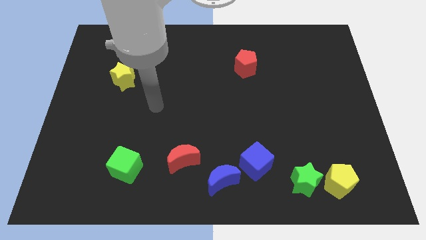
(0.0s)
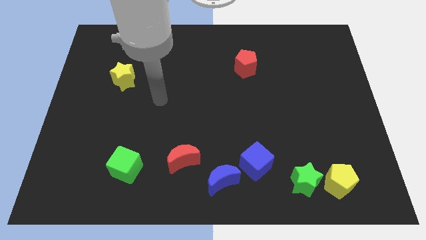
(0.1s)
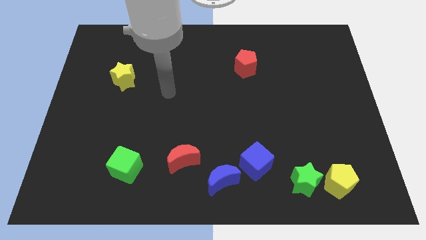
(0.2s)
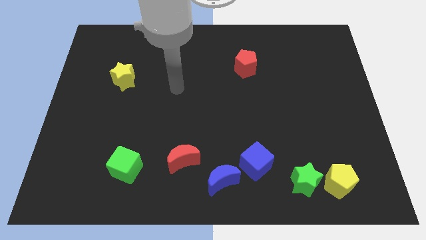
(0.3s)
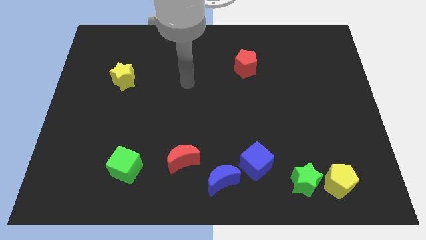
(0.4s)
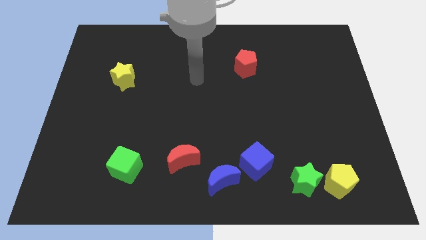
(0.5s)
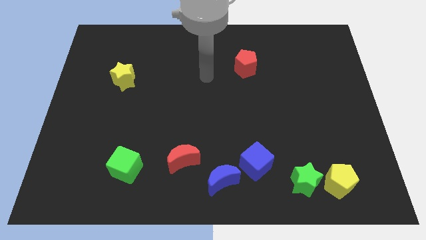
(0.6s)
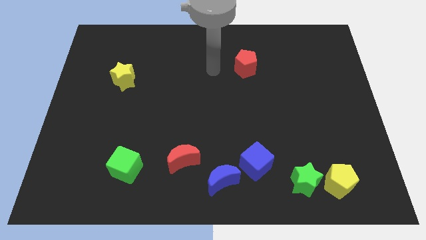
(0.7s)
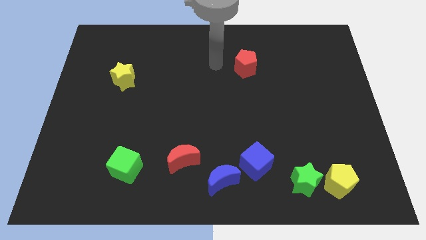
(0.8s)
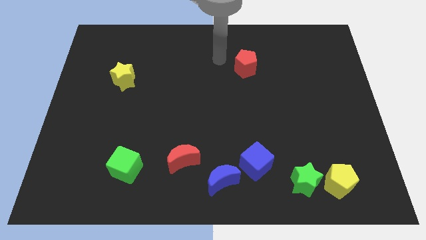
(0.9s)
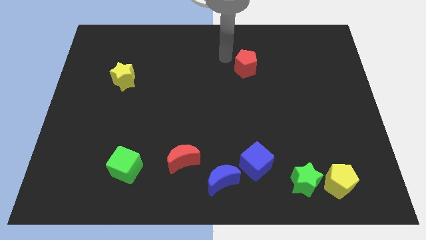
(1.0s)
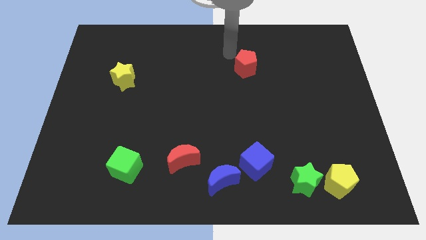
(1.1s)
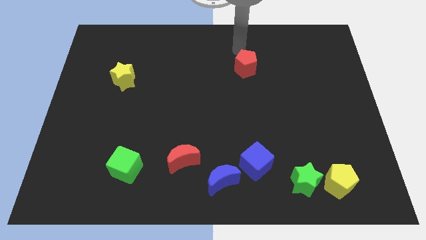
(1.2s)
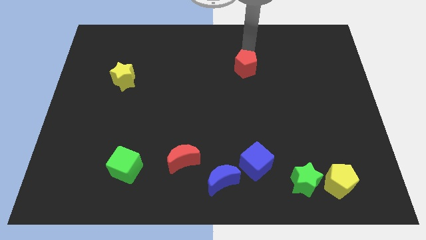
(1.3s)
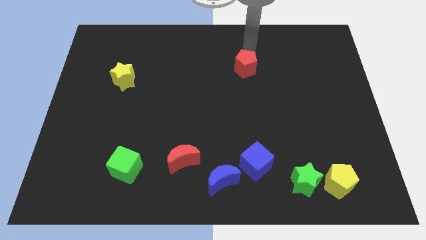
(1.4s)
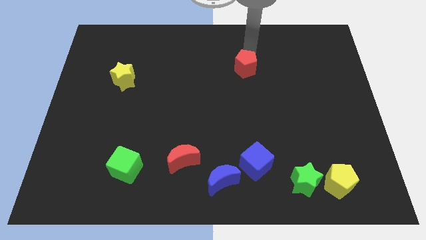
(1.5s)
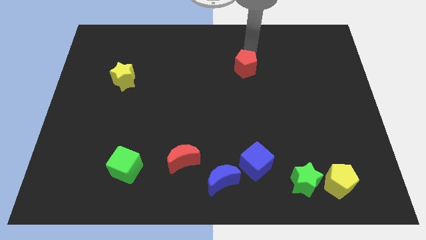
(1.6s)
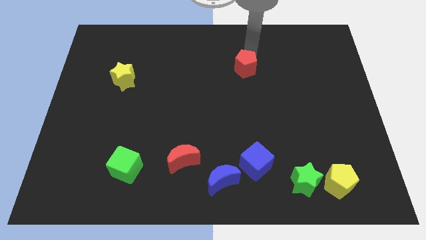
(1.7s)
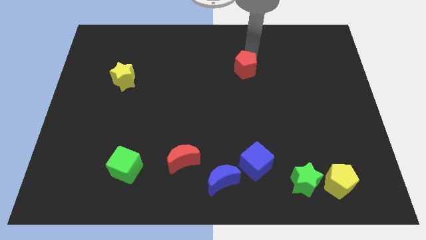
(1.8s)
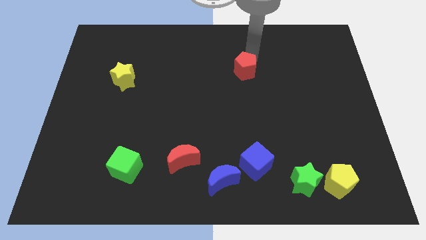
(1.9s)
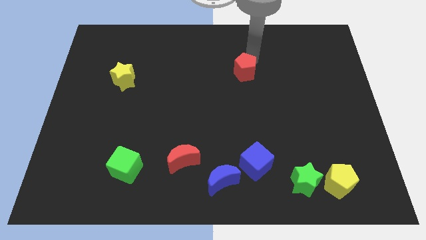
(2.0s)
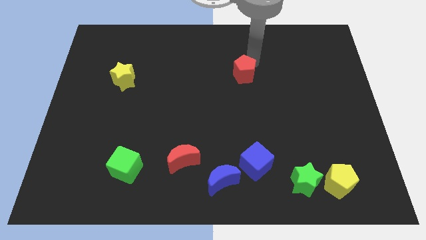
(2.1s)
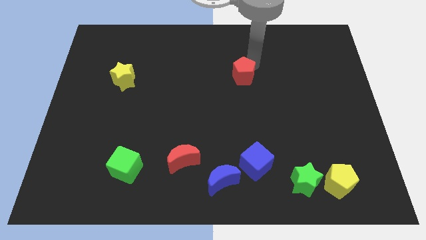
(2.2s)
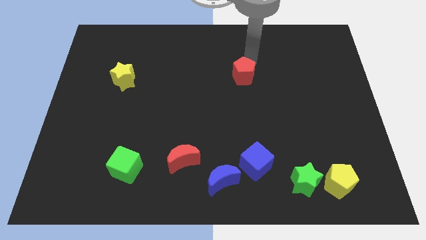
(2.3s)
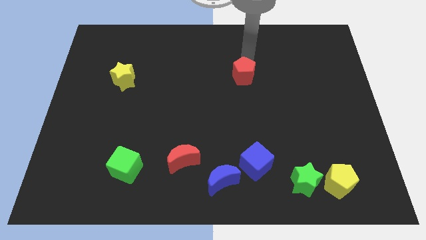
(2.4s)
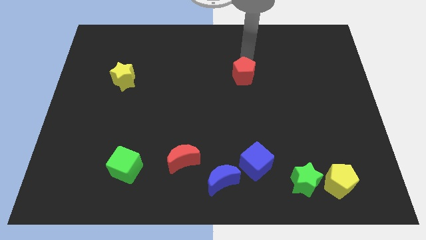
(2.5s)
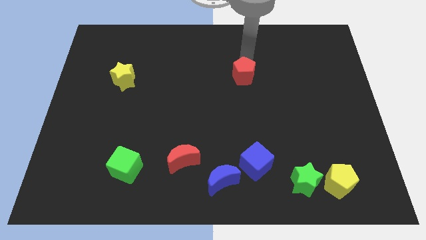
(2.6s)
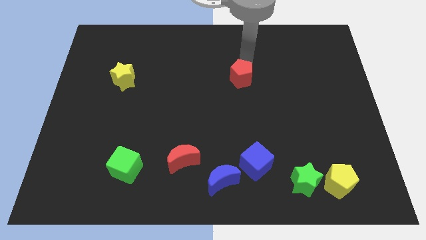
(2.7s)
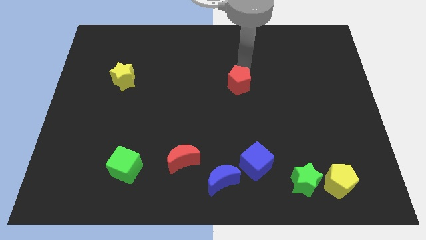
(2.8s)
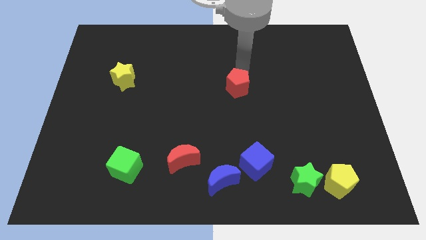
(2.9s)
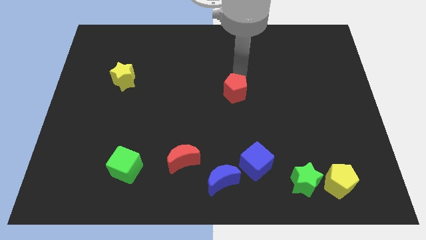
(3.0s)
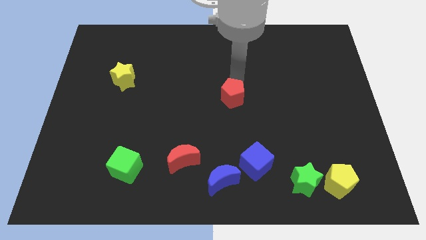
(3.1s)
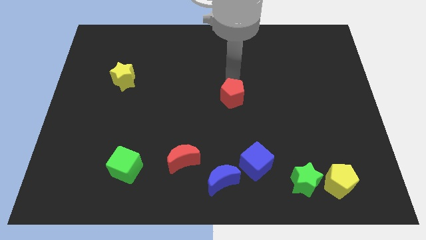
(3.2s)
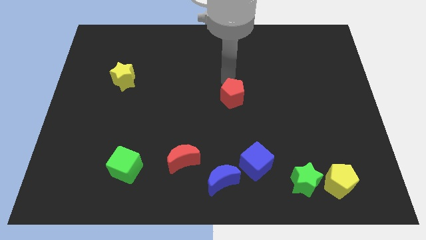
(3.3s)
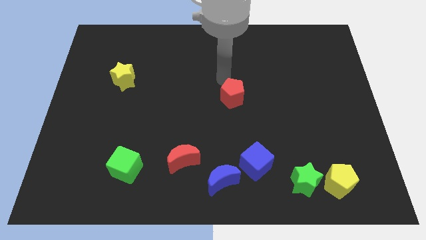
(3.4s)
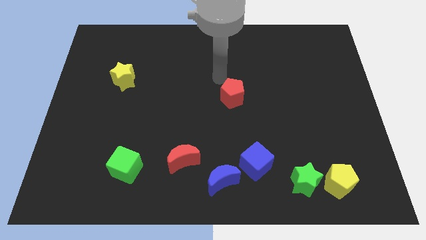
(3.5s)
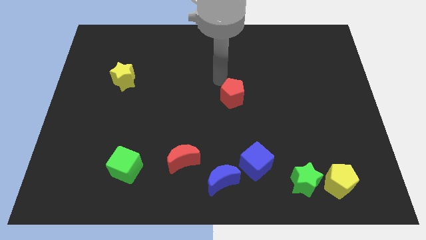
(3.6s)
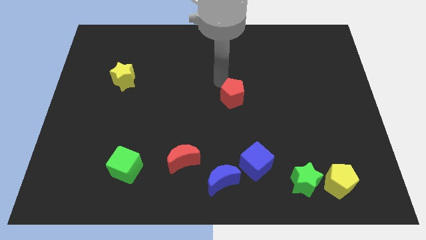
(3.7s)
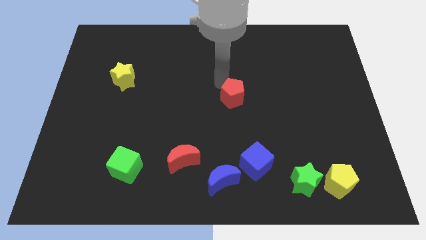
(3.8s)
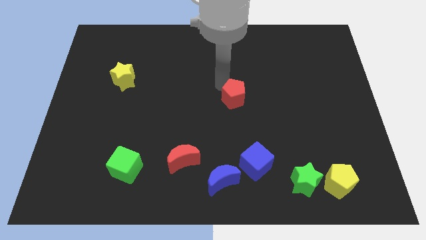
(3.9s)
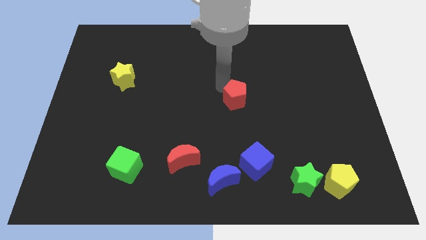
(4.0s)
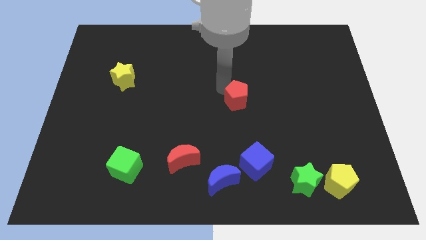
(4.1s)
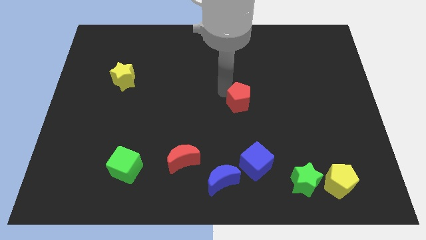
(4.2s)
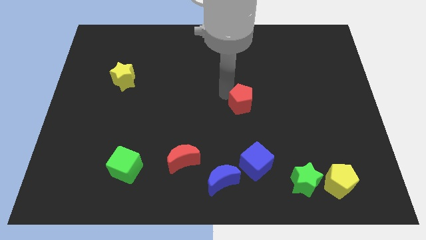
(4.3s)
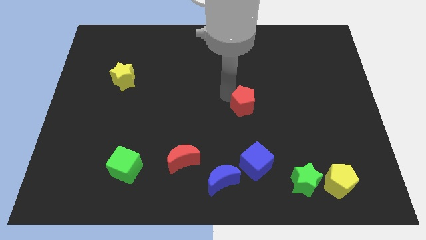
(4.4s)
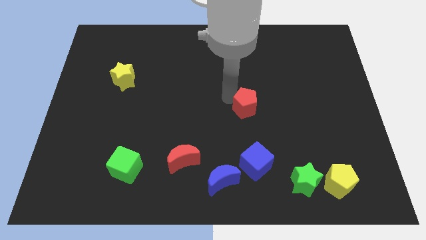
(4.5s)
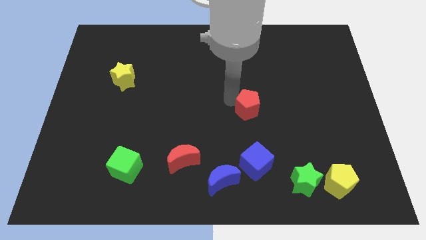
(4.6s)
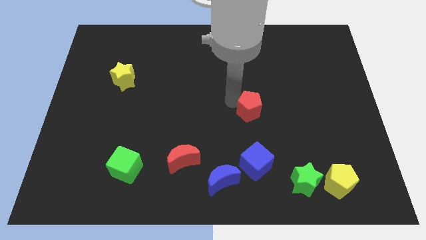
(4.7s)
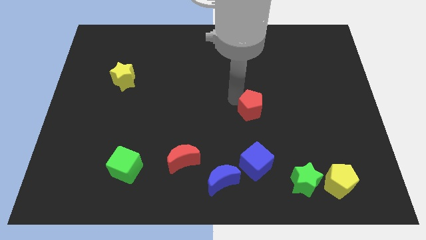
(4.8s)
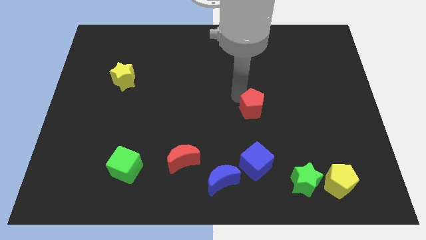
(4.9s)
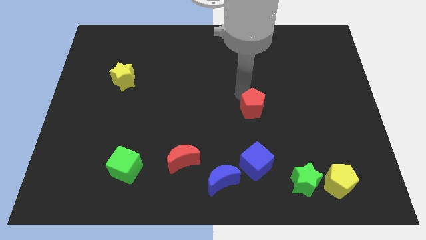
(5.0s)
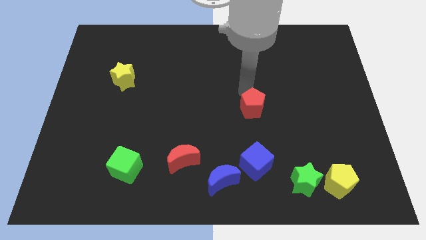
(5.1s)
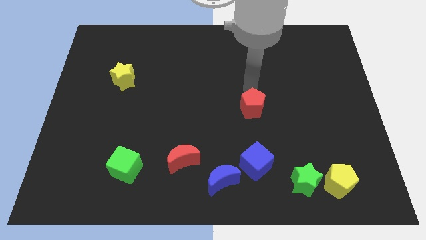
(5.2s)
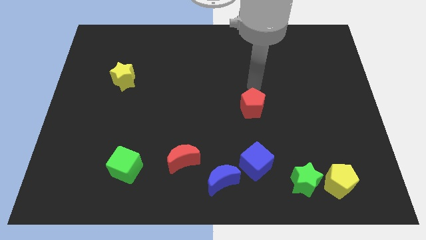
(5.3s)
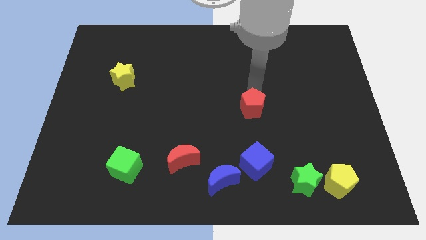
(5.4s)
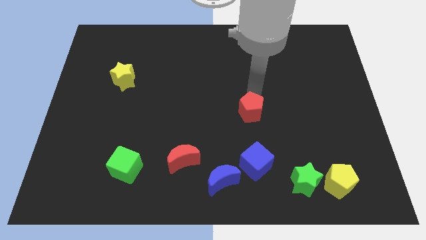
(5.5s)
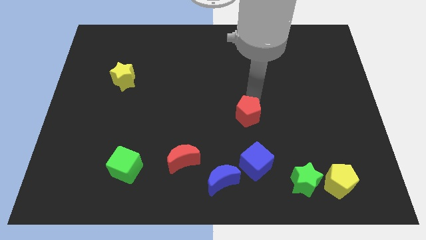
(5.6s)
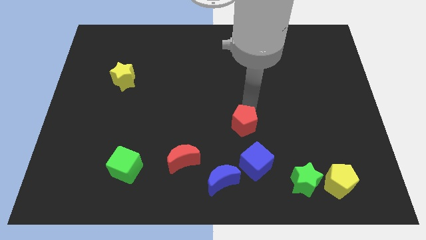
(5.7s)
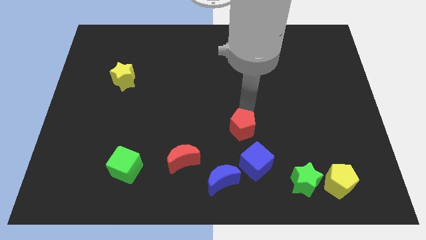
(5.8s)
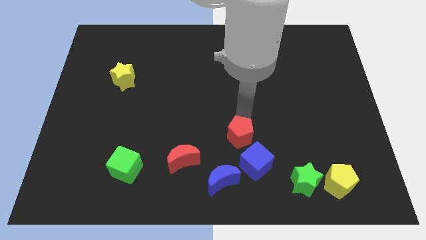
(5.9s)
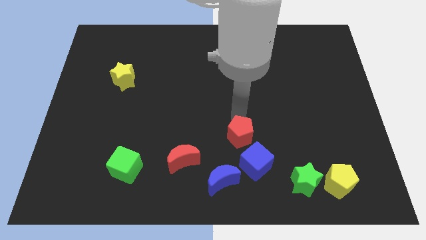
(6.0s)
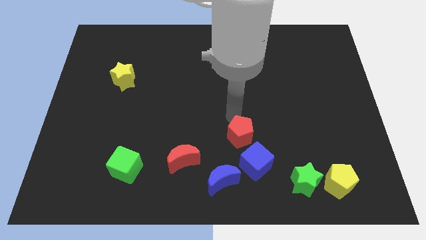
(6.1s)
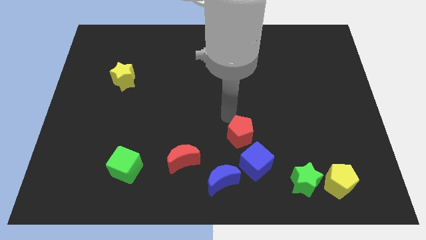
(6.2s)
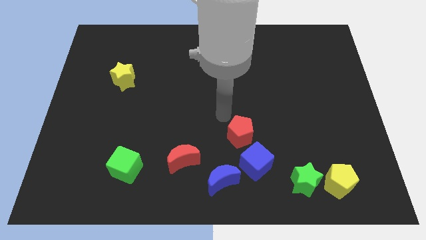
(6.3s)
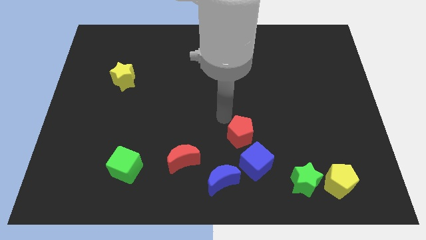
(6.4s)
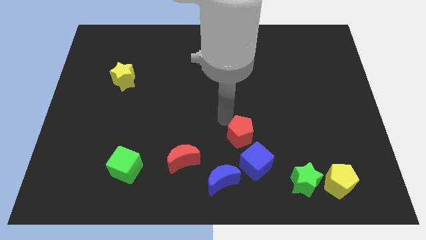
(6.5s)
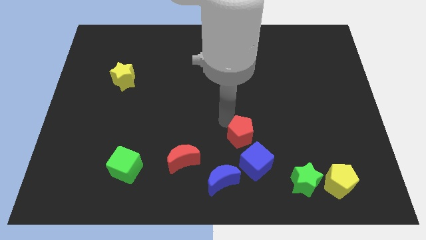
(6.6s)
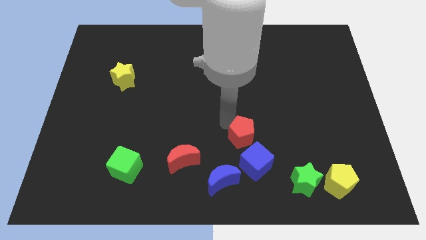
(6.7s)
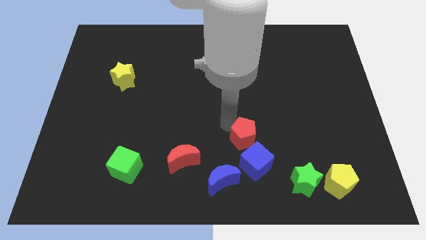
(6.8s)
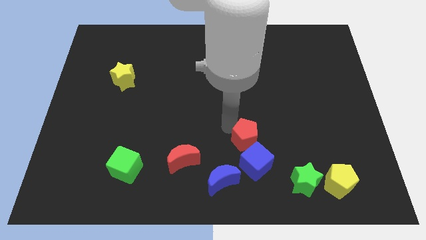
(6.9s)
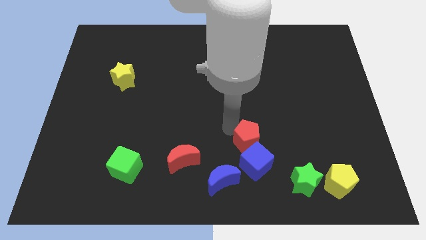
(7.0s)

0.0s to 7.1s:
put the red pentagon next to the blue cube
